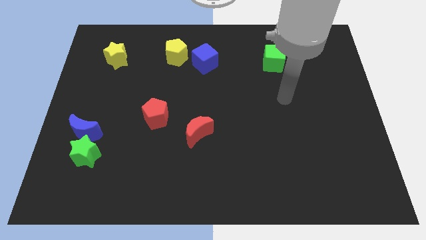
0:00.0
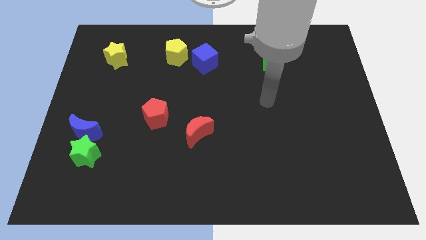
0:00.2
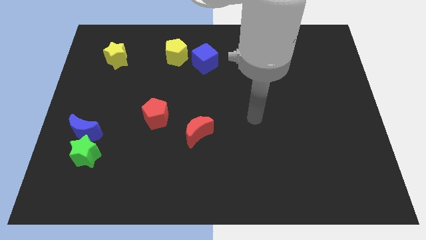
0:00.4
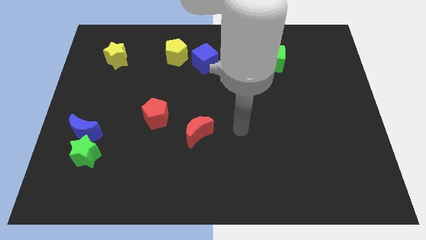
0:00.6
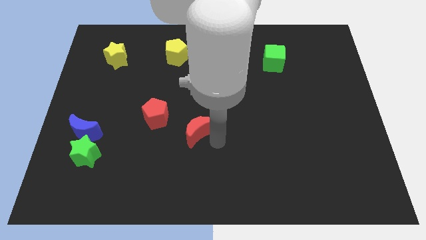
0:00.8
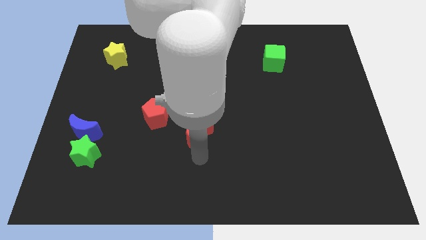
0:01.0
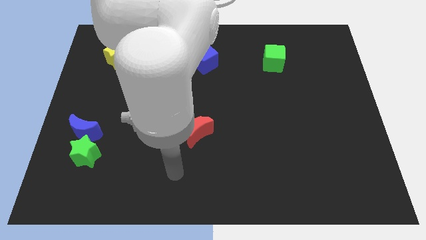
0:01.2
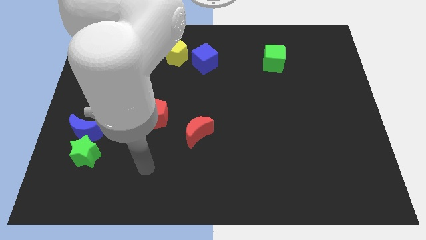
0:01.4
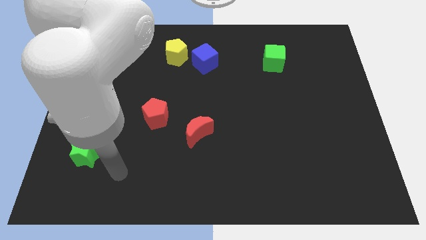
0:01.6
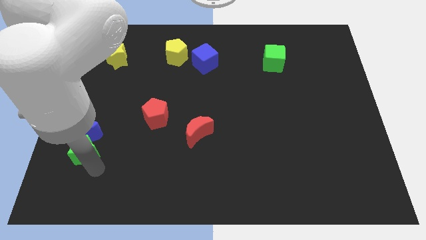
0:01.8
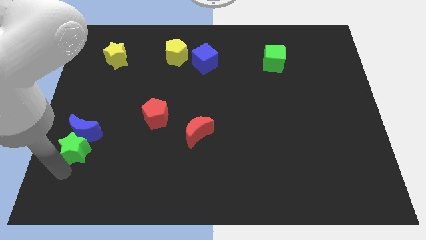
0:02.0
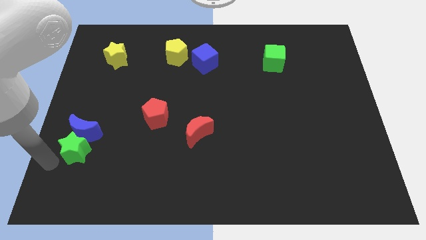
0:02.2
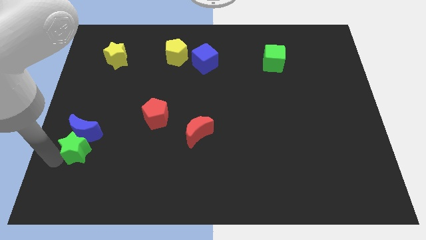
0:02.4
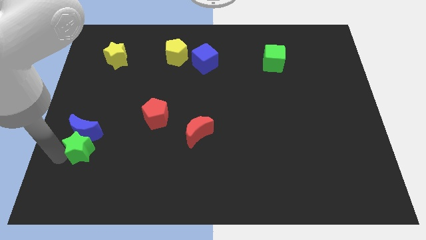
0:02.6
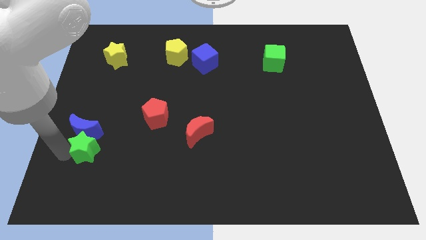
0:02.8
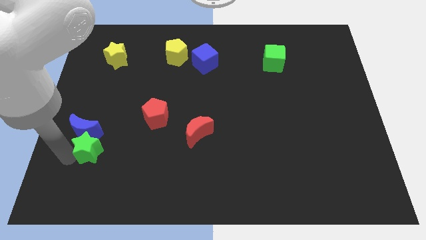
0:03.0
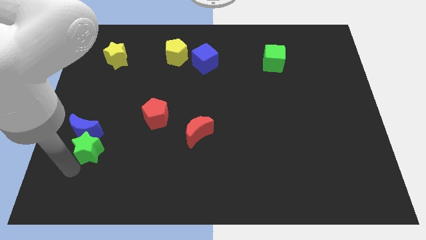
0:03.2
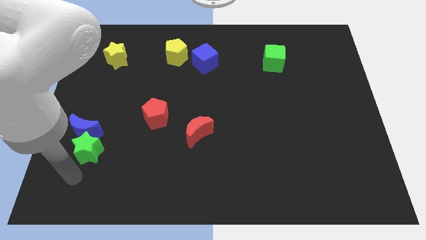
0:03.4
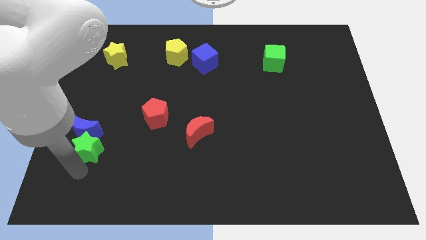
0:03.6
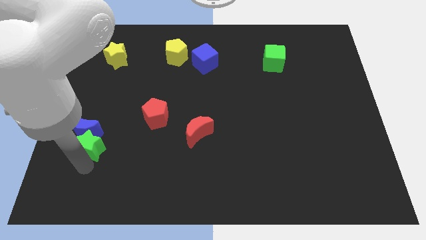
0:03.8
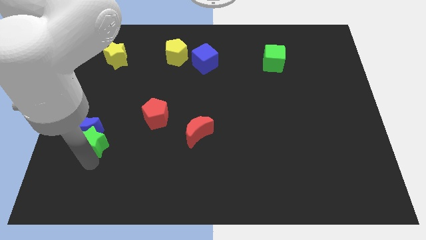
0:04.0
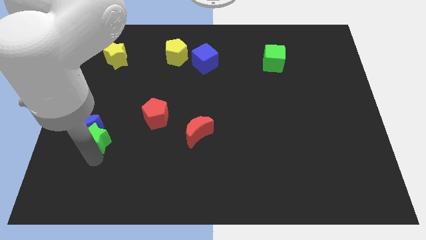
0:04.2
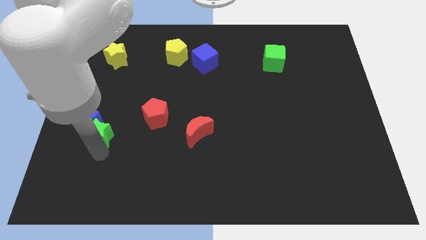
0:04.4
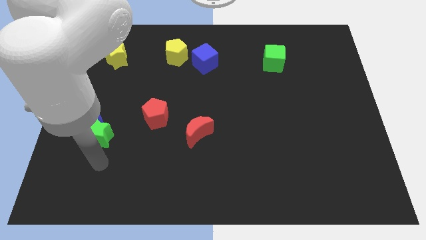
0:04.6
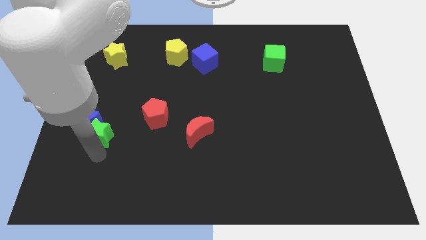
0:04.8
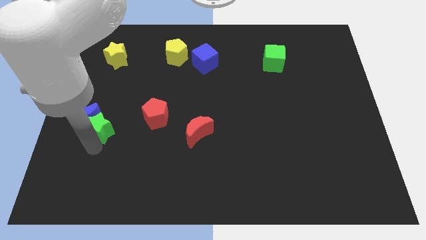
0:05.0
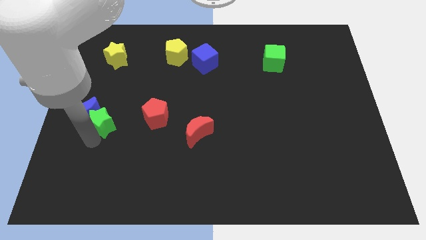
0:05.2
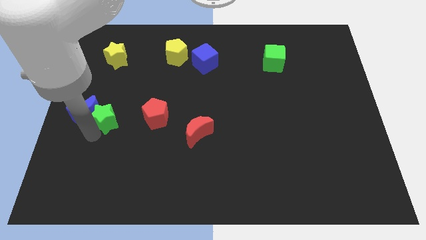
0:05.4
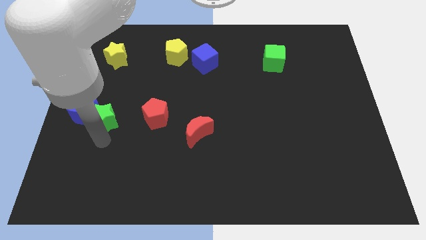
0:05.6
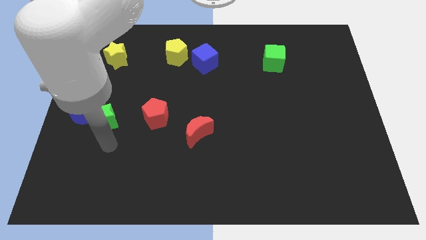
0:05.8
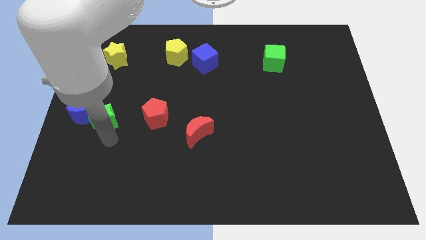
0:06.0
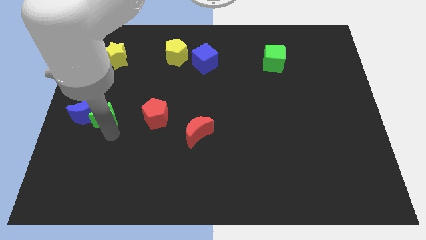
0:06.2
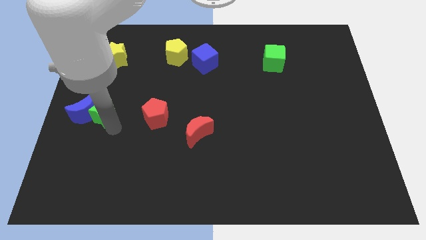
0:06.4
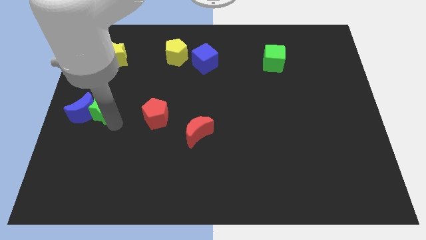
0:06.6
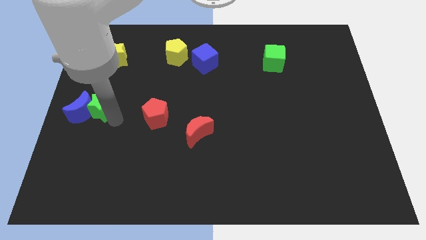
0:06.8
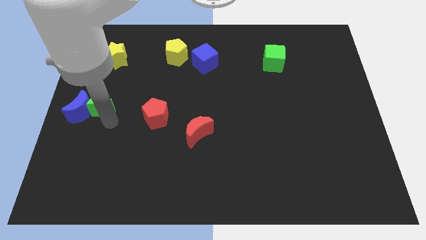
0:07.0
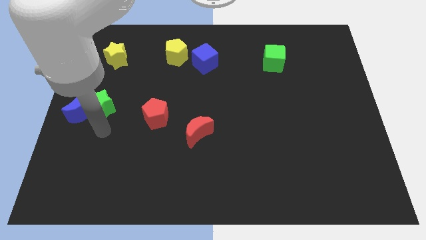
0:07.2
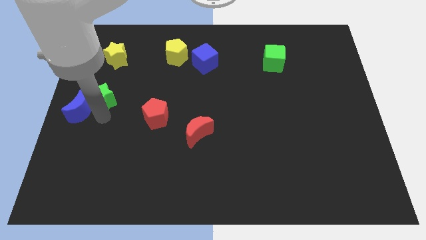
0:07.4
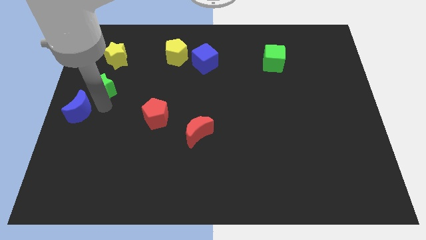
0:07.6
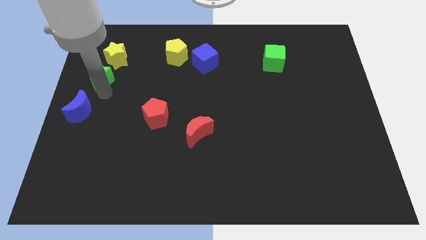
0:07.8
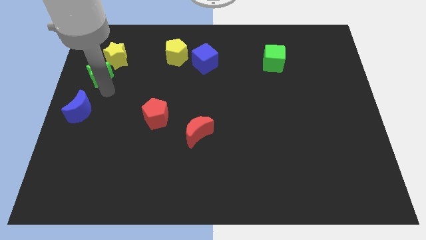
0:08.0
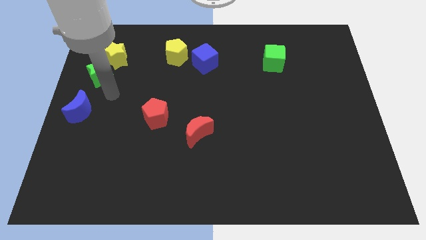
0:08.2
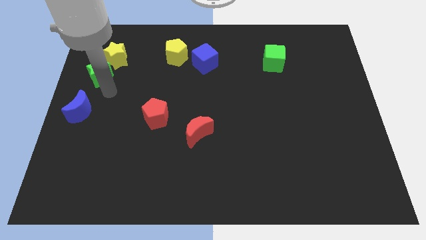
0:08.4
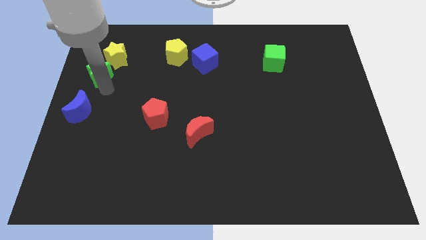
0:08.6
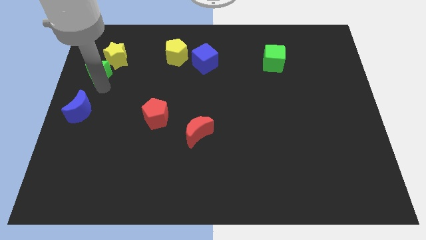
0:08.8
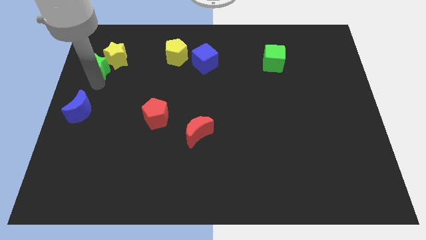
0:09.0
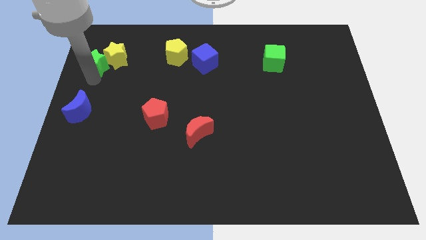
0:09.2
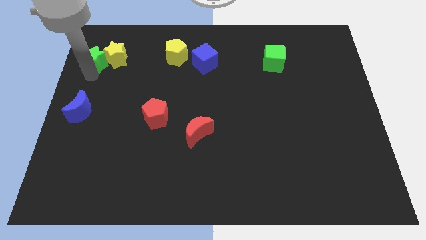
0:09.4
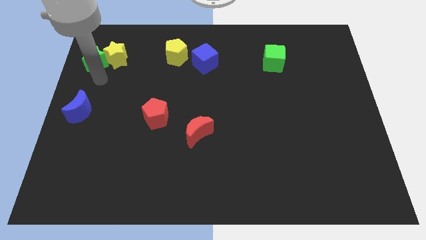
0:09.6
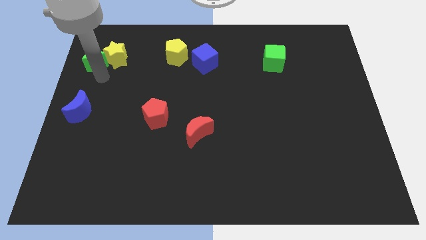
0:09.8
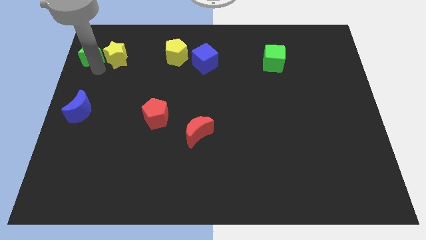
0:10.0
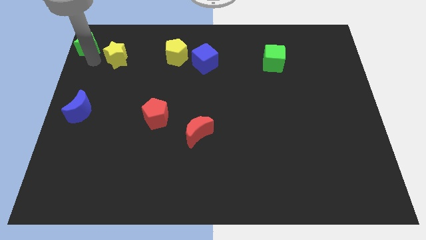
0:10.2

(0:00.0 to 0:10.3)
put the green star to the top left
